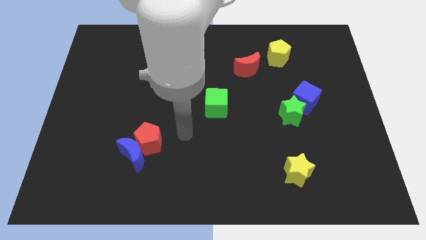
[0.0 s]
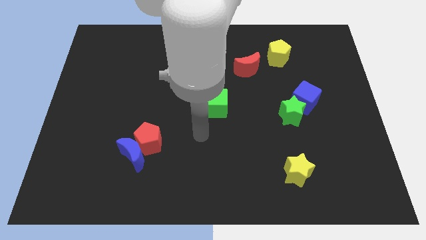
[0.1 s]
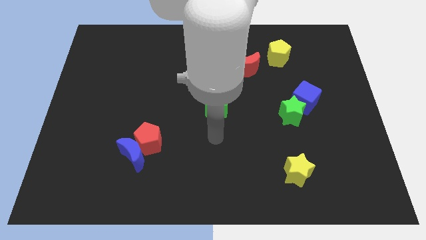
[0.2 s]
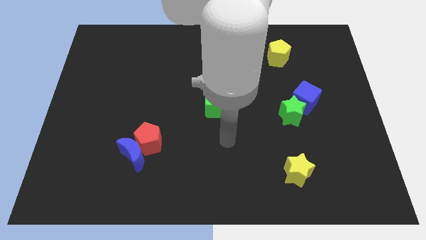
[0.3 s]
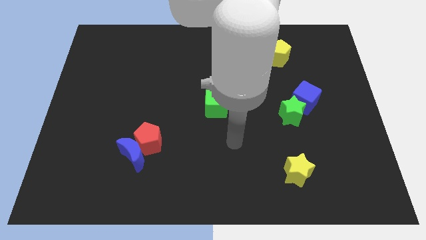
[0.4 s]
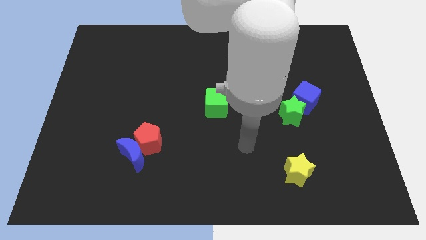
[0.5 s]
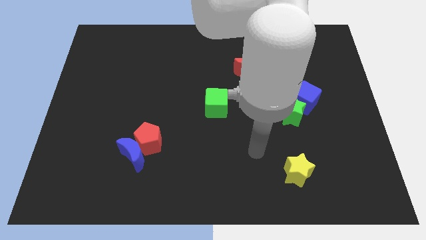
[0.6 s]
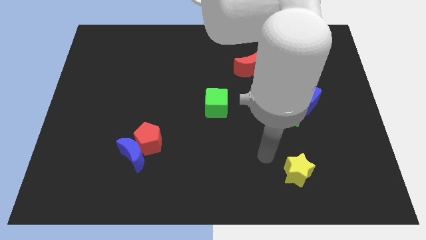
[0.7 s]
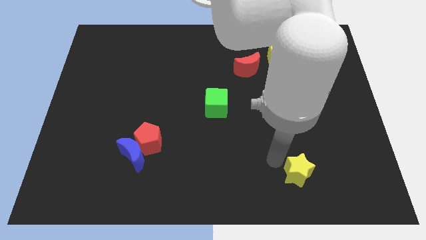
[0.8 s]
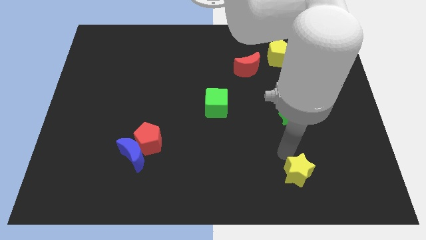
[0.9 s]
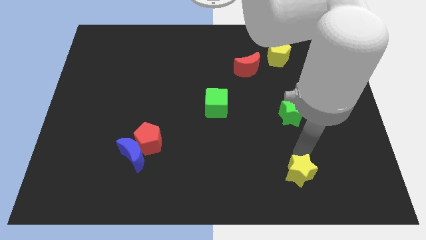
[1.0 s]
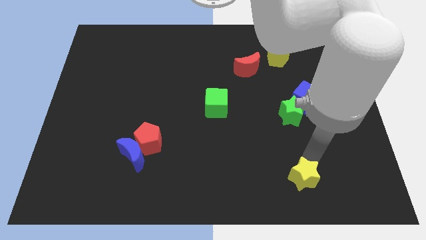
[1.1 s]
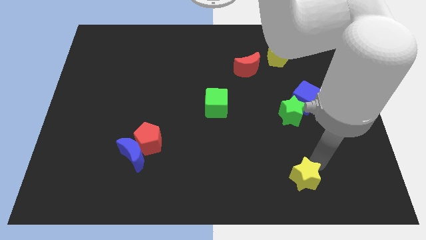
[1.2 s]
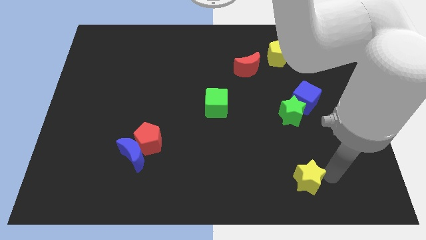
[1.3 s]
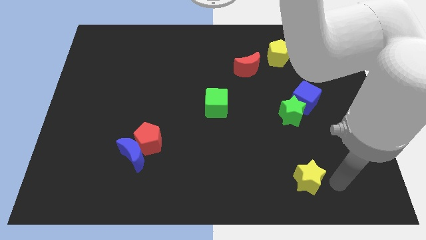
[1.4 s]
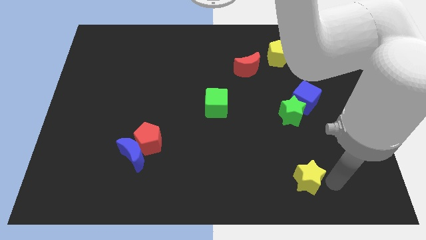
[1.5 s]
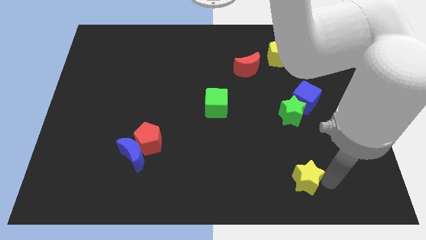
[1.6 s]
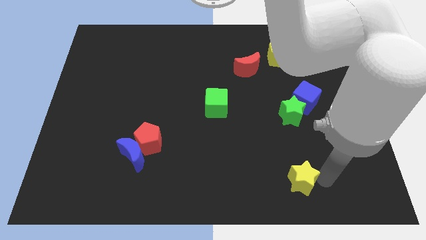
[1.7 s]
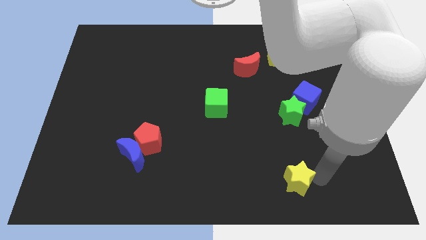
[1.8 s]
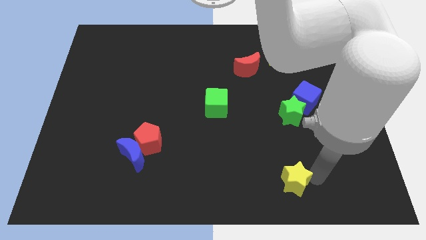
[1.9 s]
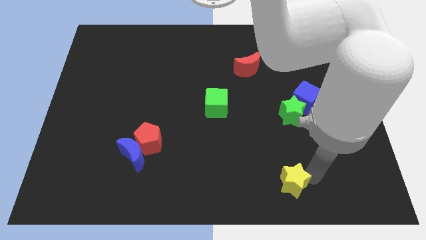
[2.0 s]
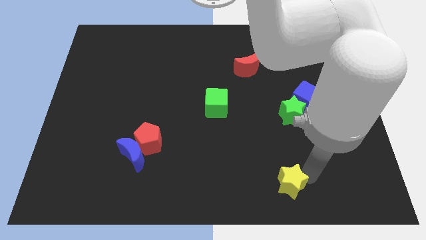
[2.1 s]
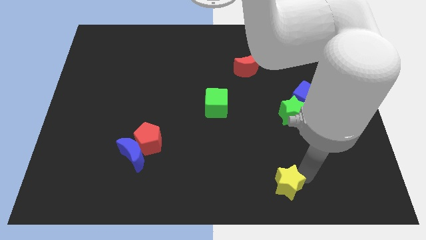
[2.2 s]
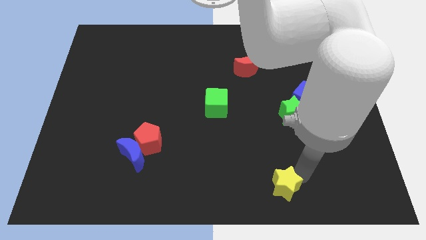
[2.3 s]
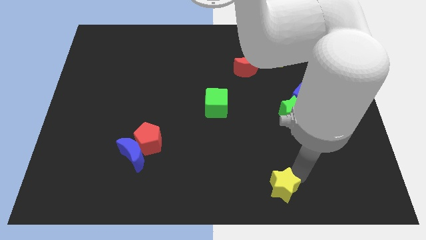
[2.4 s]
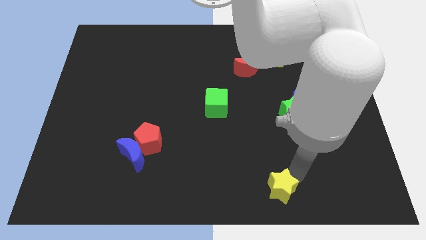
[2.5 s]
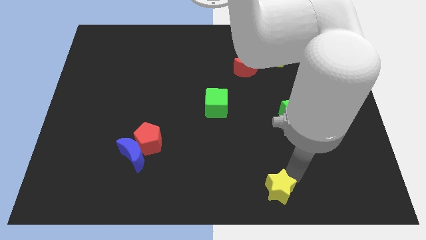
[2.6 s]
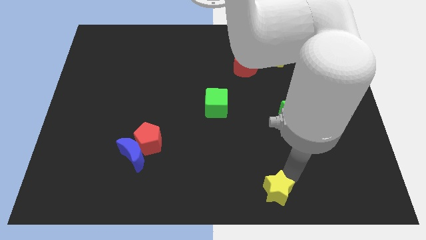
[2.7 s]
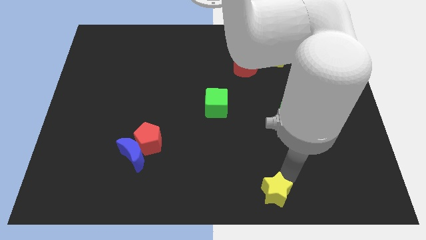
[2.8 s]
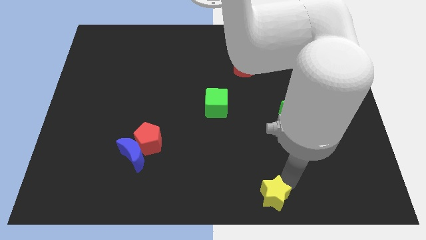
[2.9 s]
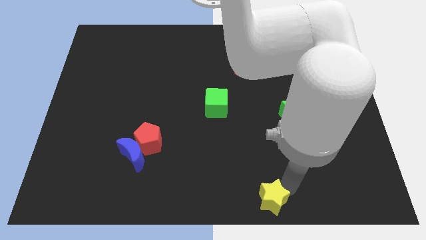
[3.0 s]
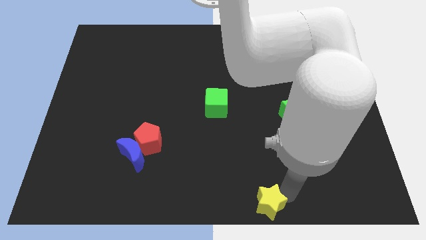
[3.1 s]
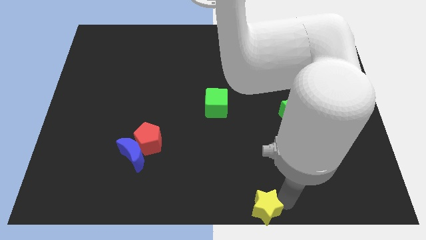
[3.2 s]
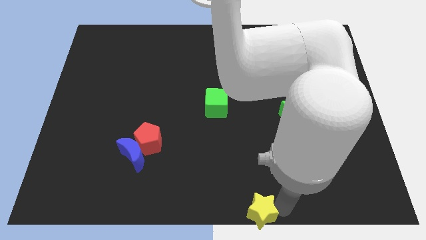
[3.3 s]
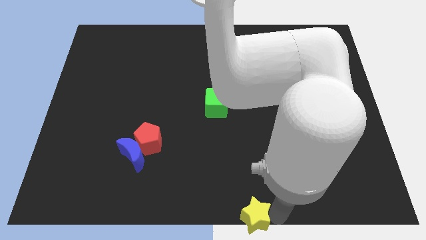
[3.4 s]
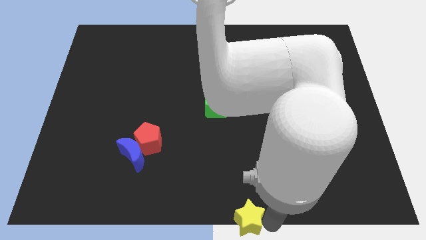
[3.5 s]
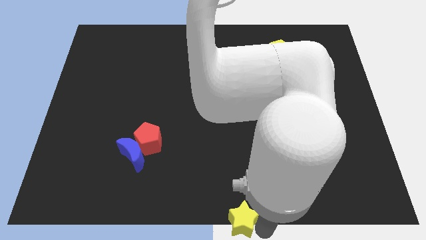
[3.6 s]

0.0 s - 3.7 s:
slide the yellow star slightly to the left

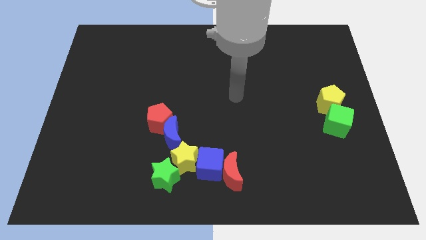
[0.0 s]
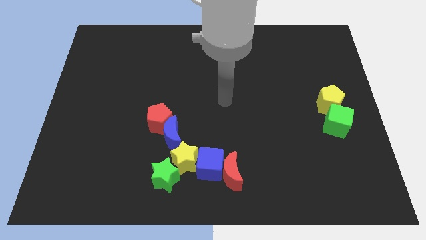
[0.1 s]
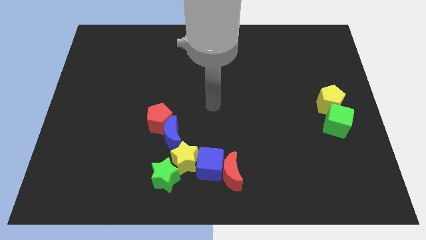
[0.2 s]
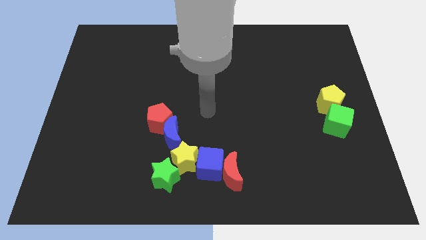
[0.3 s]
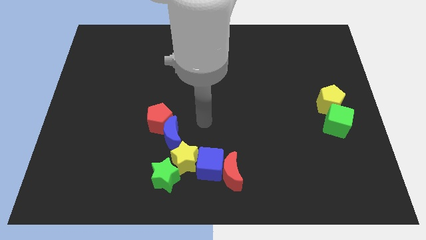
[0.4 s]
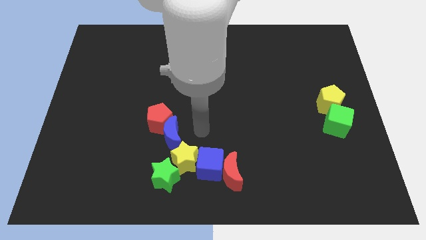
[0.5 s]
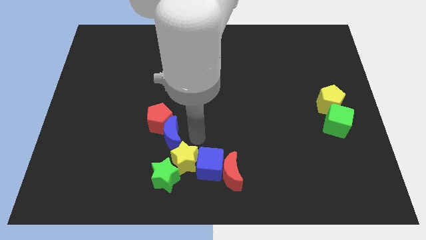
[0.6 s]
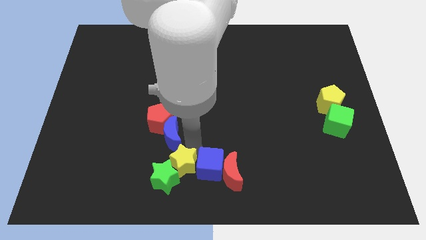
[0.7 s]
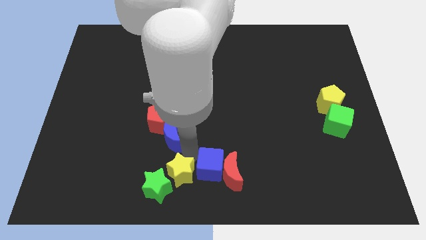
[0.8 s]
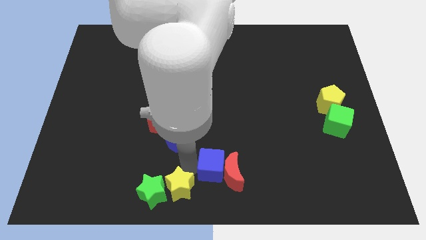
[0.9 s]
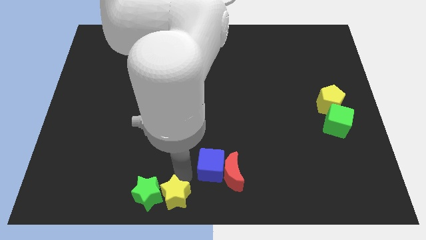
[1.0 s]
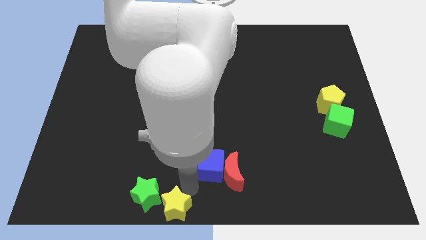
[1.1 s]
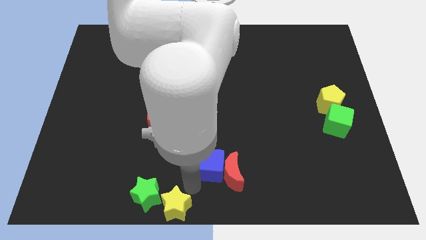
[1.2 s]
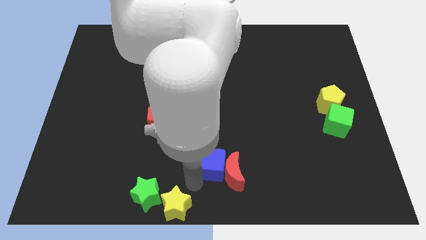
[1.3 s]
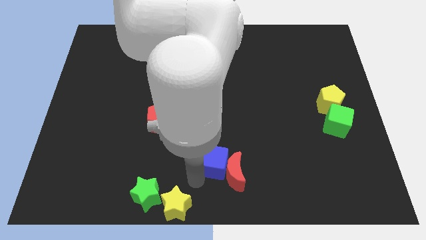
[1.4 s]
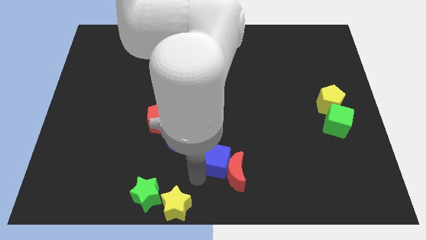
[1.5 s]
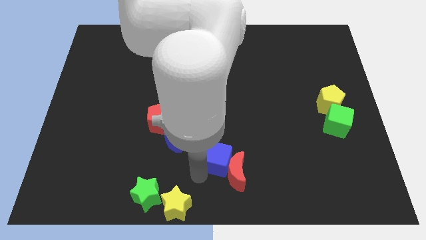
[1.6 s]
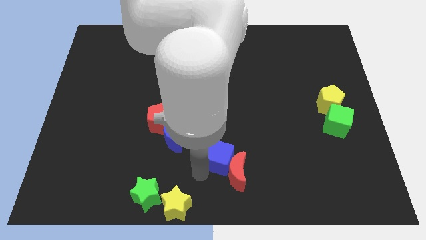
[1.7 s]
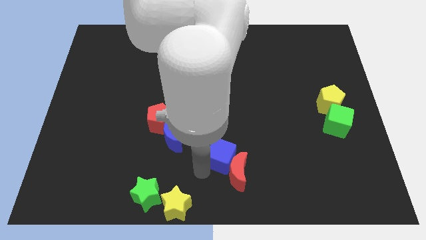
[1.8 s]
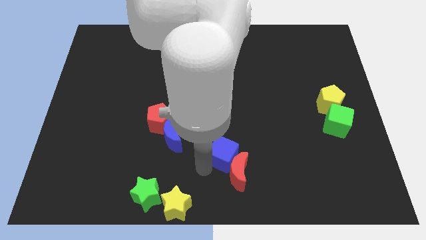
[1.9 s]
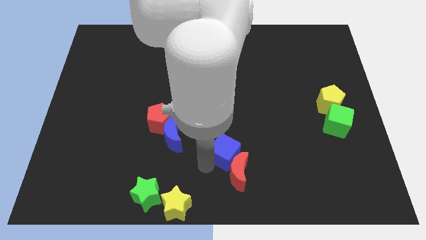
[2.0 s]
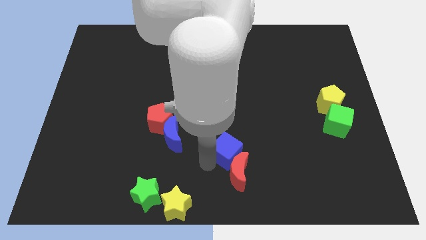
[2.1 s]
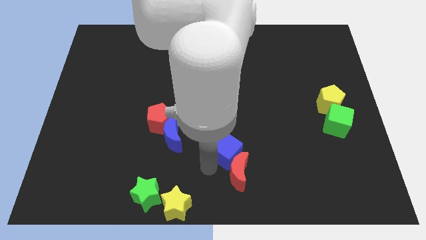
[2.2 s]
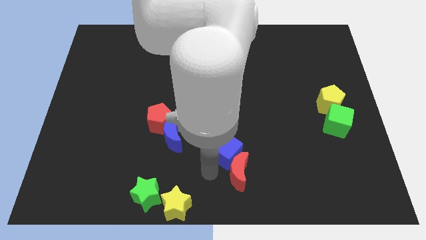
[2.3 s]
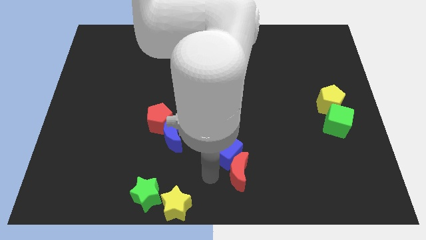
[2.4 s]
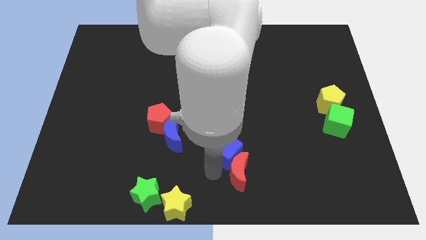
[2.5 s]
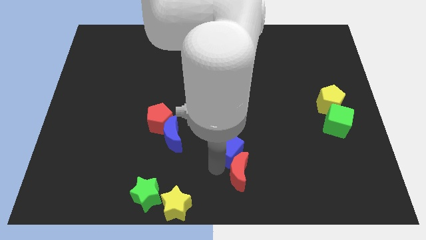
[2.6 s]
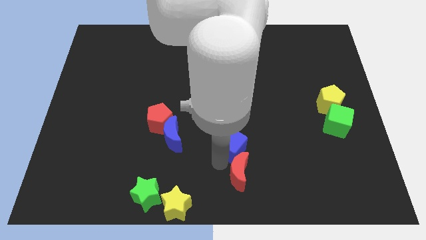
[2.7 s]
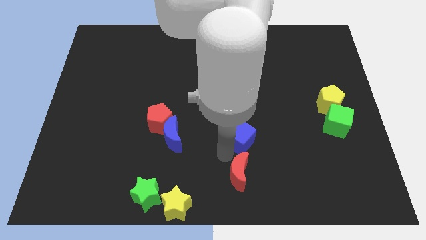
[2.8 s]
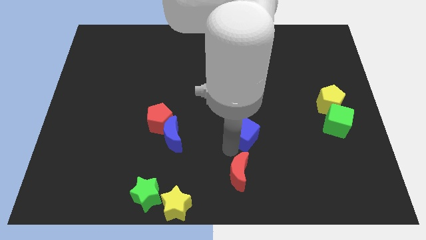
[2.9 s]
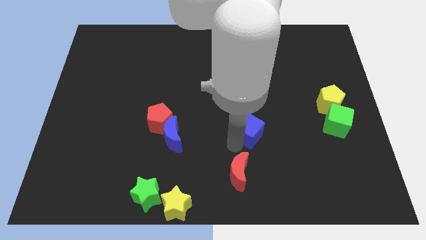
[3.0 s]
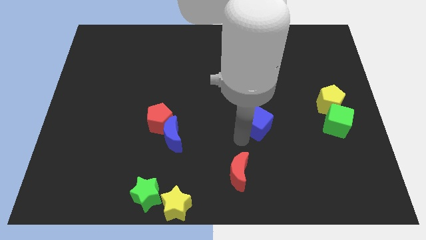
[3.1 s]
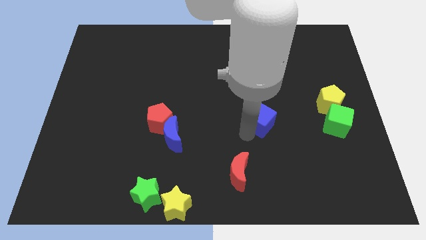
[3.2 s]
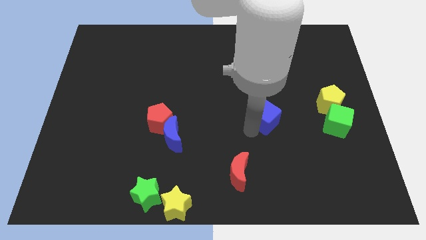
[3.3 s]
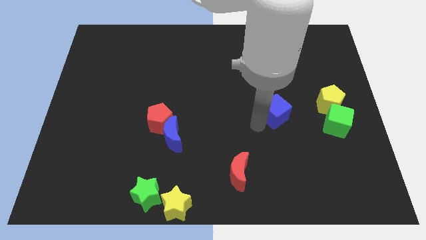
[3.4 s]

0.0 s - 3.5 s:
push the blue cube upwards and to the right diagonally
